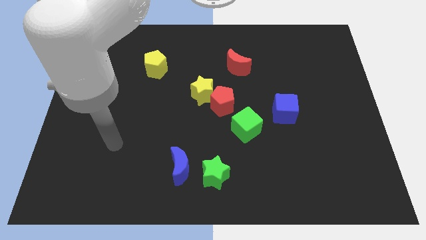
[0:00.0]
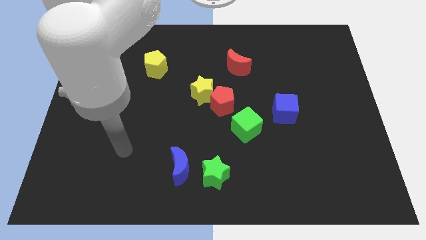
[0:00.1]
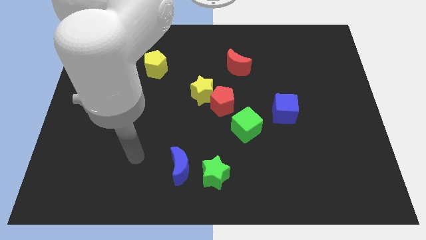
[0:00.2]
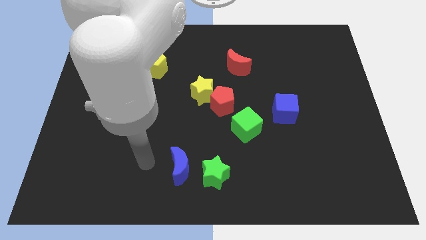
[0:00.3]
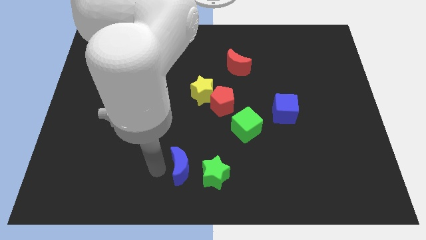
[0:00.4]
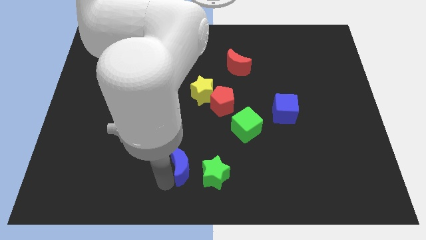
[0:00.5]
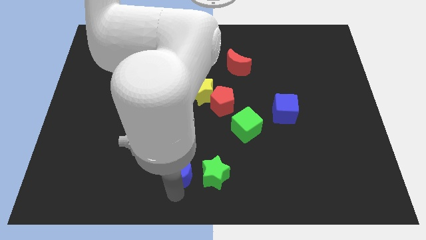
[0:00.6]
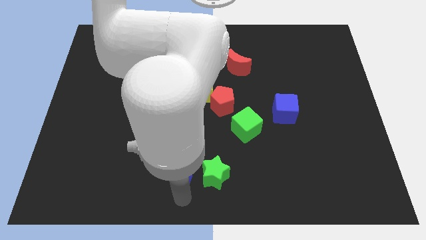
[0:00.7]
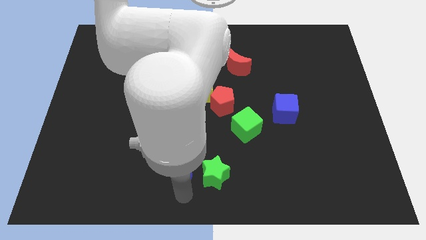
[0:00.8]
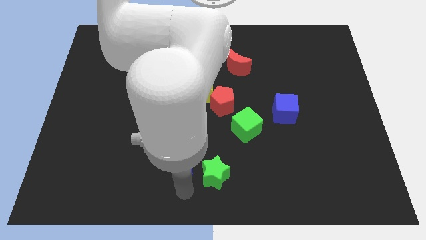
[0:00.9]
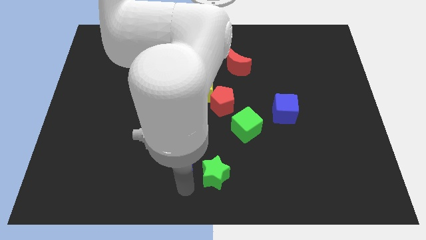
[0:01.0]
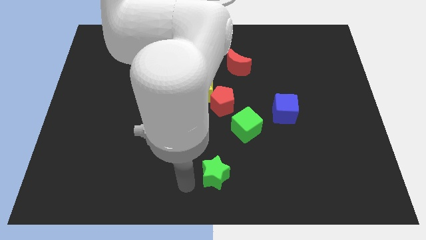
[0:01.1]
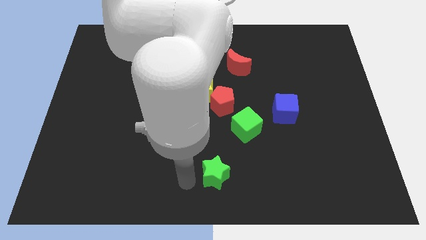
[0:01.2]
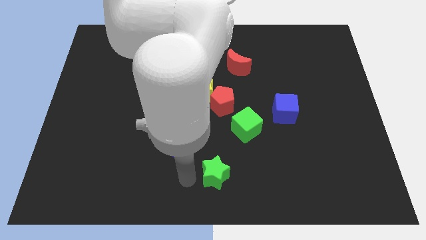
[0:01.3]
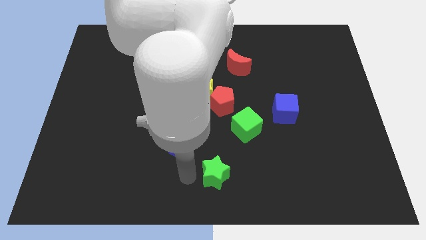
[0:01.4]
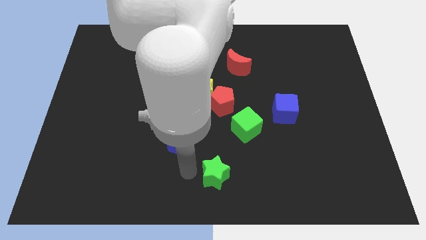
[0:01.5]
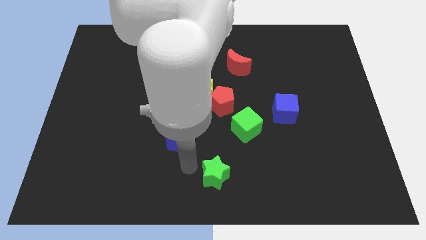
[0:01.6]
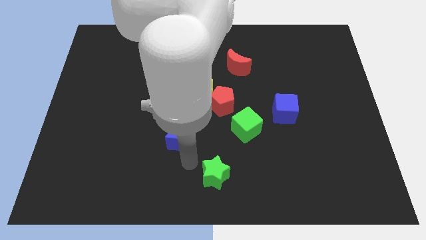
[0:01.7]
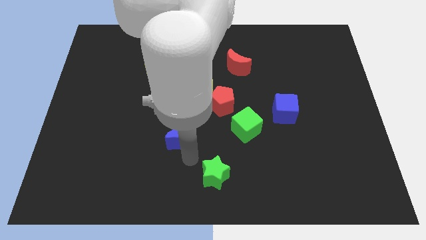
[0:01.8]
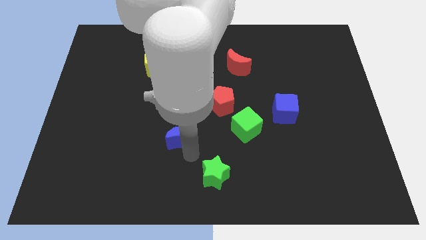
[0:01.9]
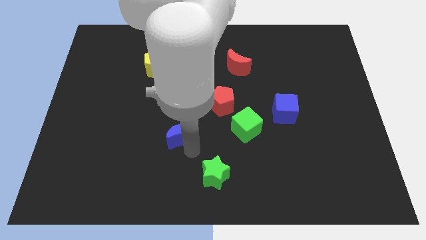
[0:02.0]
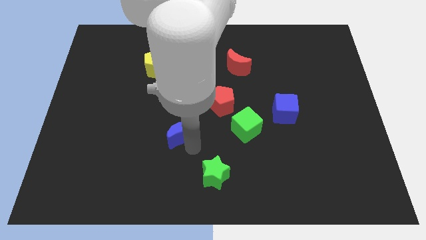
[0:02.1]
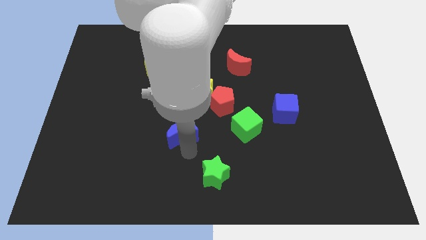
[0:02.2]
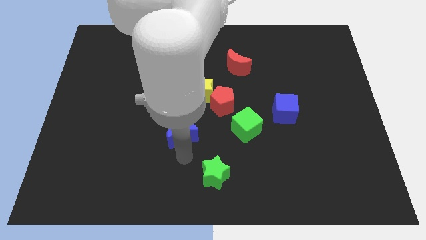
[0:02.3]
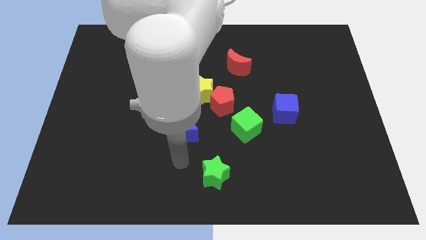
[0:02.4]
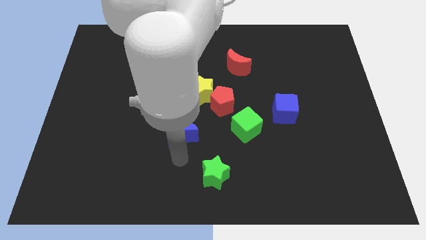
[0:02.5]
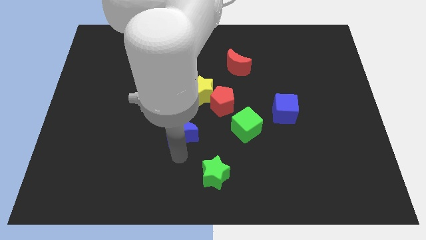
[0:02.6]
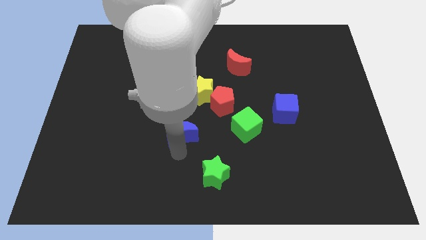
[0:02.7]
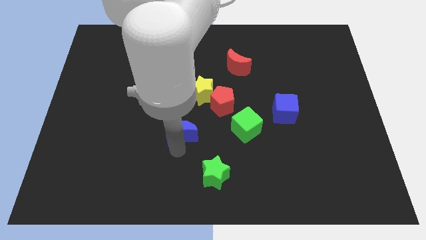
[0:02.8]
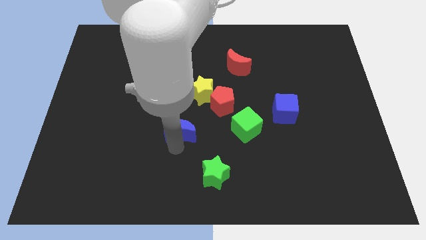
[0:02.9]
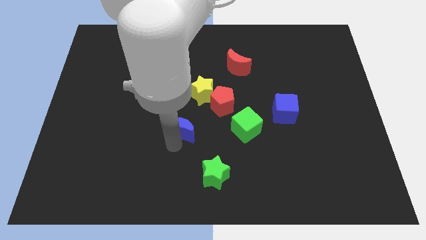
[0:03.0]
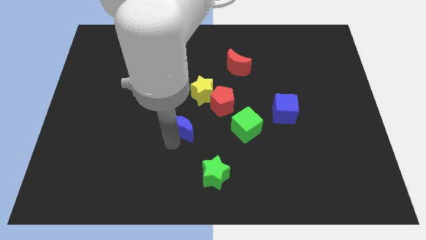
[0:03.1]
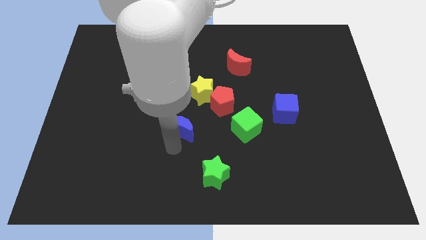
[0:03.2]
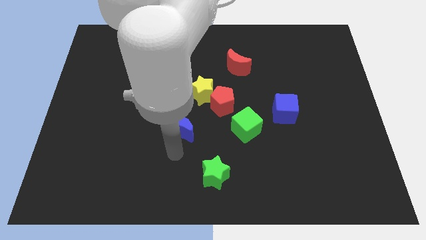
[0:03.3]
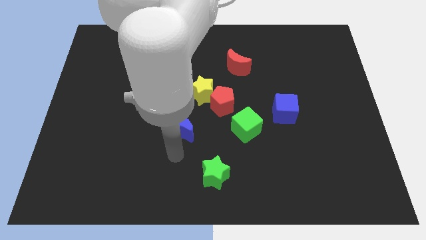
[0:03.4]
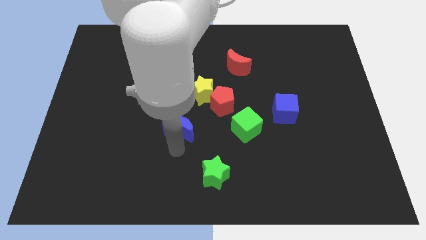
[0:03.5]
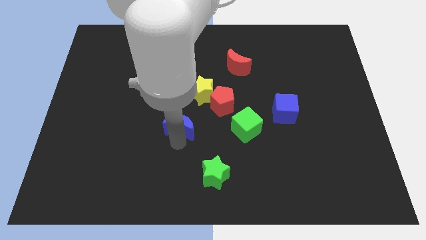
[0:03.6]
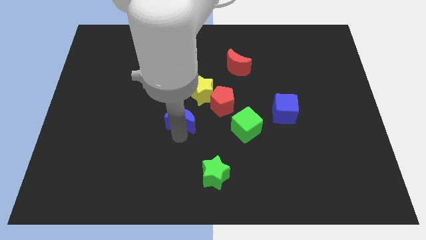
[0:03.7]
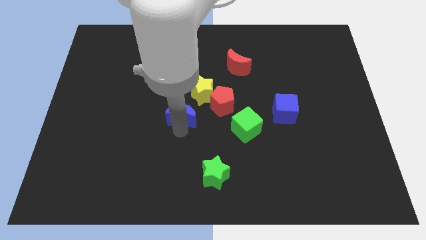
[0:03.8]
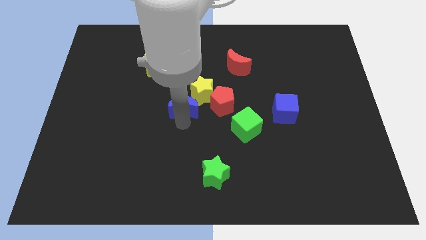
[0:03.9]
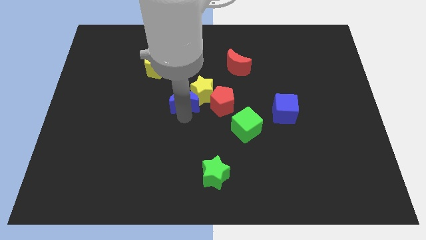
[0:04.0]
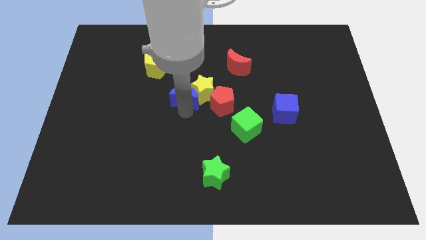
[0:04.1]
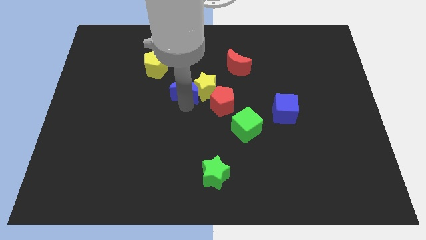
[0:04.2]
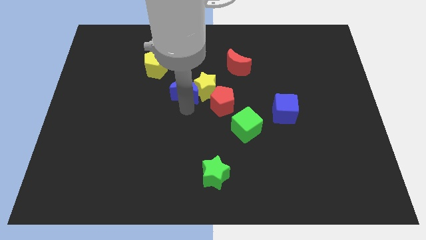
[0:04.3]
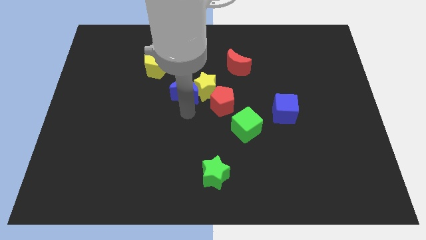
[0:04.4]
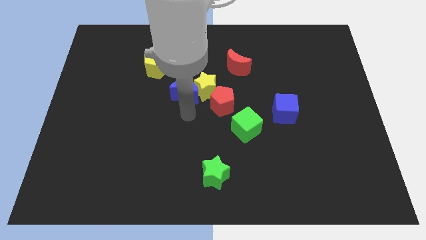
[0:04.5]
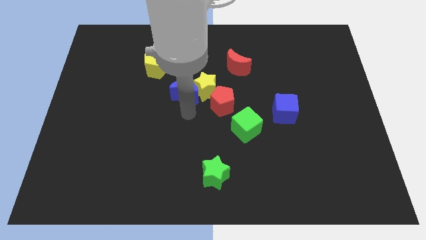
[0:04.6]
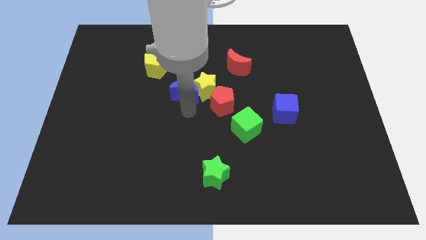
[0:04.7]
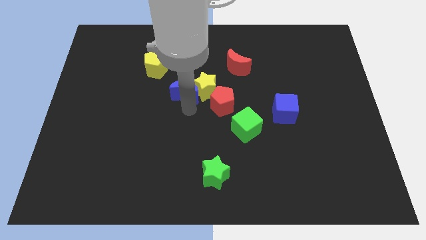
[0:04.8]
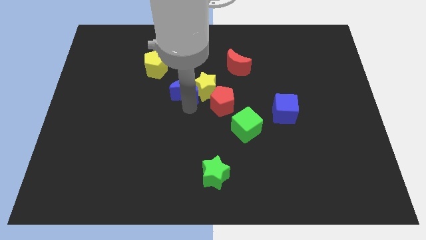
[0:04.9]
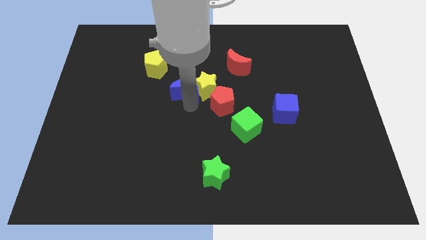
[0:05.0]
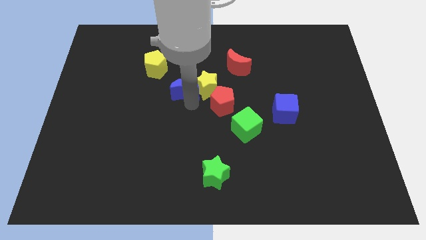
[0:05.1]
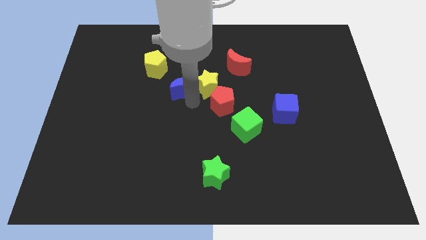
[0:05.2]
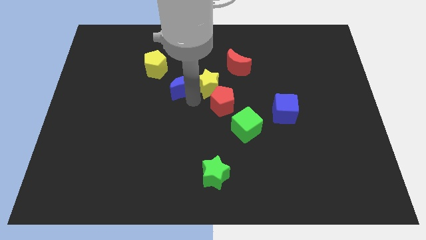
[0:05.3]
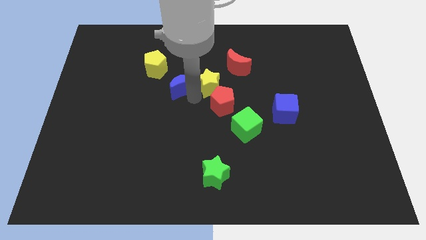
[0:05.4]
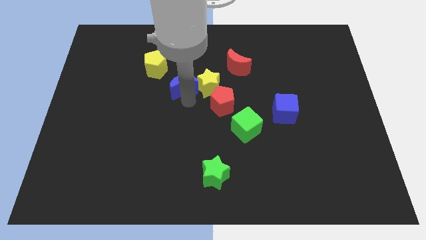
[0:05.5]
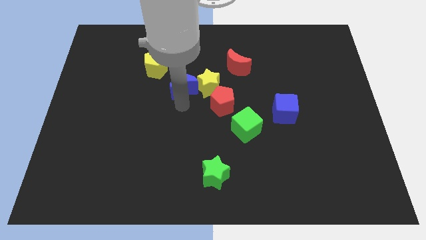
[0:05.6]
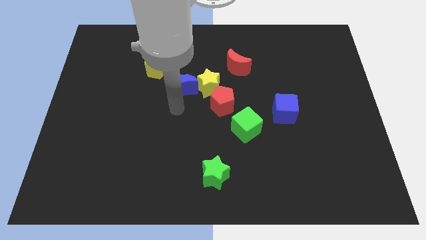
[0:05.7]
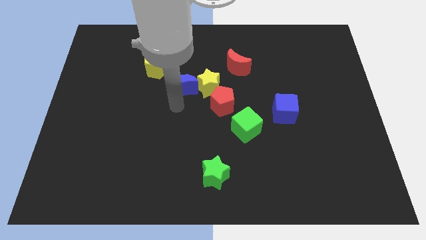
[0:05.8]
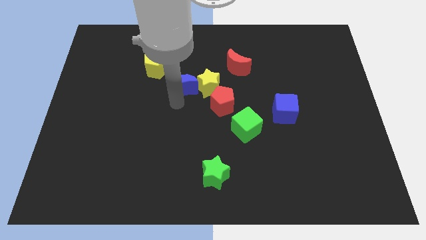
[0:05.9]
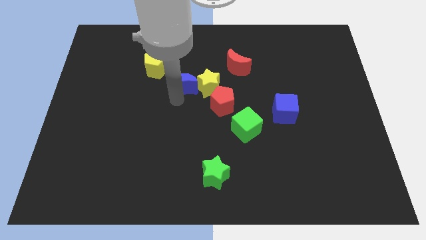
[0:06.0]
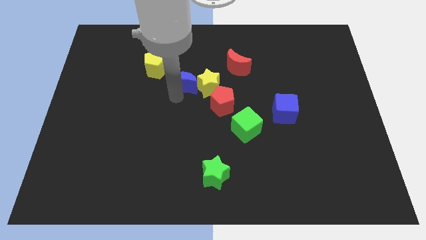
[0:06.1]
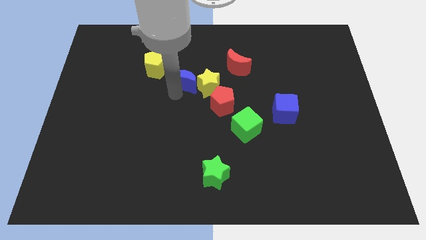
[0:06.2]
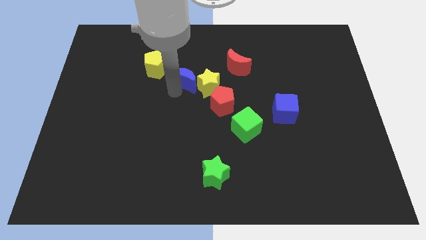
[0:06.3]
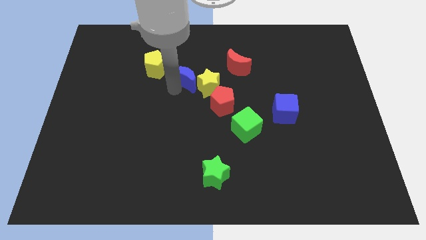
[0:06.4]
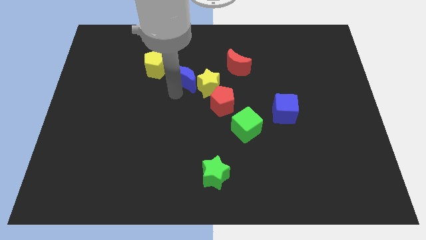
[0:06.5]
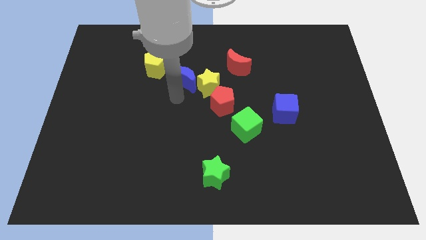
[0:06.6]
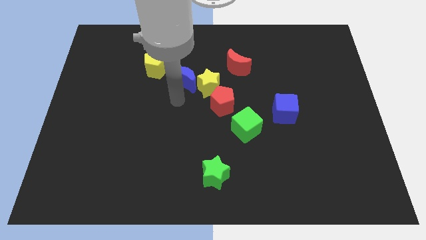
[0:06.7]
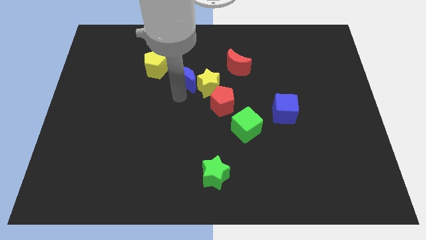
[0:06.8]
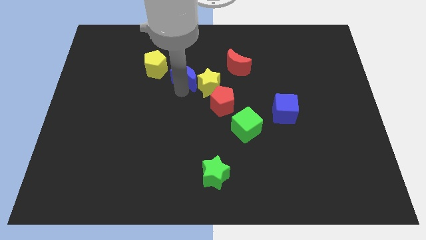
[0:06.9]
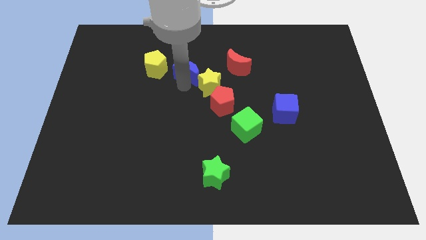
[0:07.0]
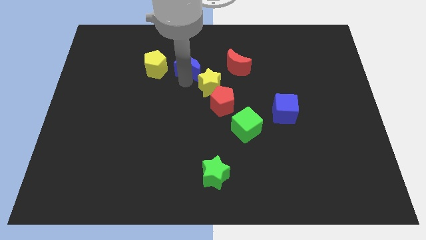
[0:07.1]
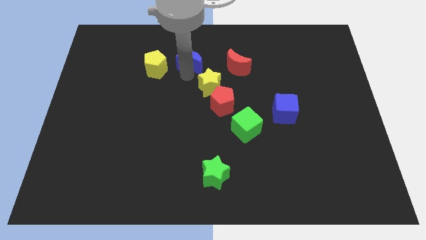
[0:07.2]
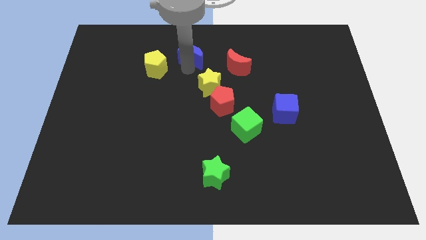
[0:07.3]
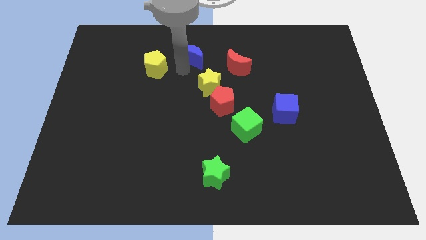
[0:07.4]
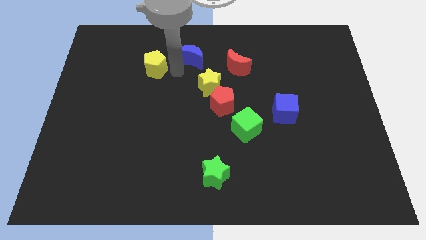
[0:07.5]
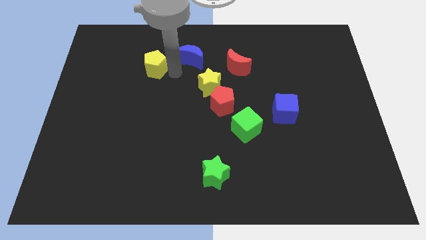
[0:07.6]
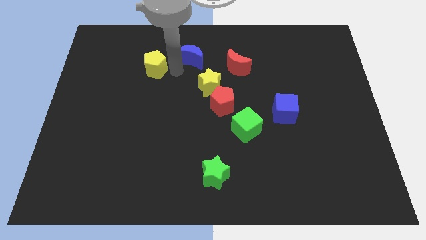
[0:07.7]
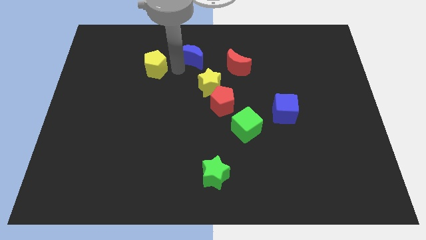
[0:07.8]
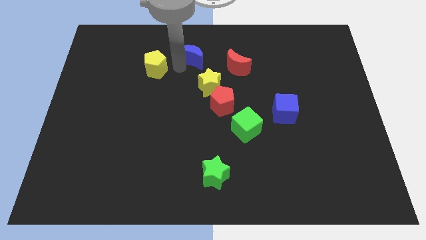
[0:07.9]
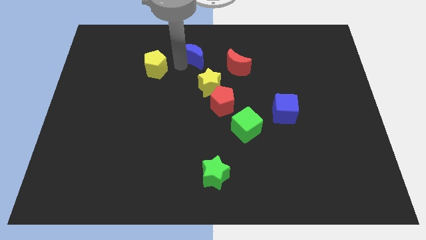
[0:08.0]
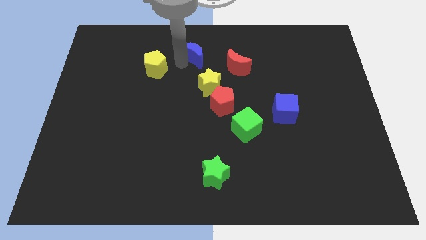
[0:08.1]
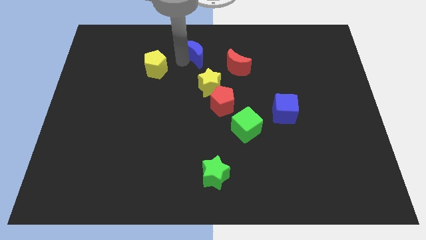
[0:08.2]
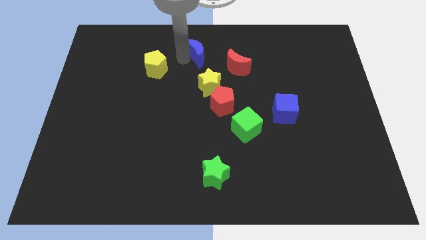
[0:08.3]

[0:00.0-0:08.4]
slide the blue moon to the top side
